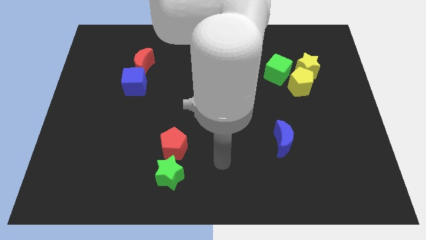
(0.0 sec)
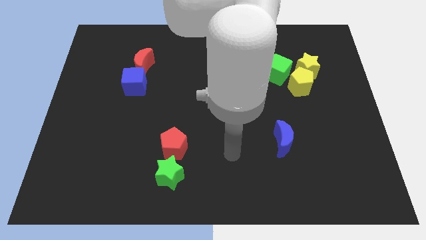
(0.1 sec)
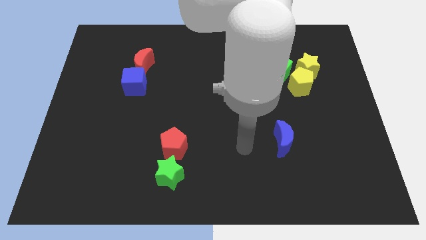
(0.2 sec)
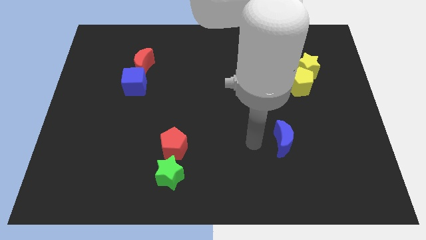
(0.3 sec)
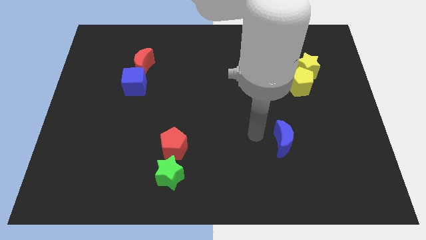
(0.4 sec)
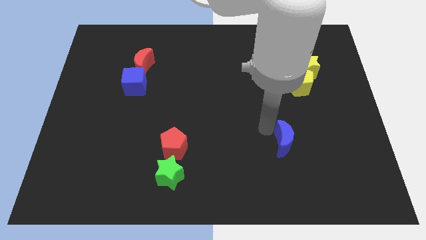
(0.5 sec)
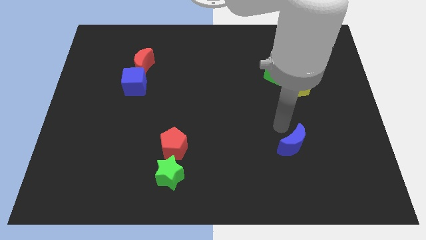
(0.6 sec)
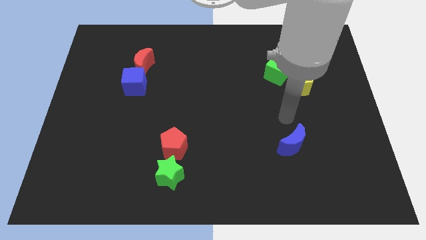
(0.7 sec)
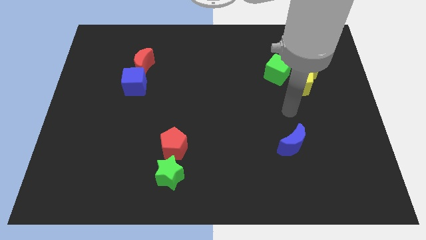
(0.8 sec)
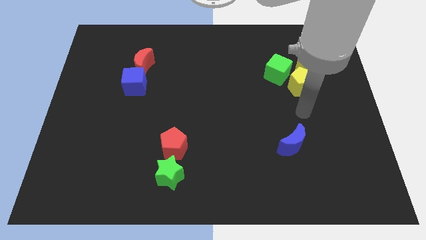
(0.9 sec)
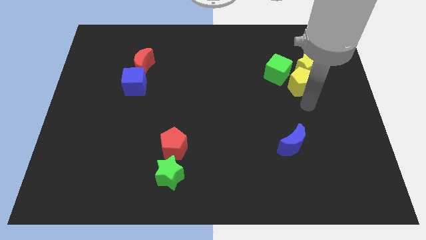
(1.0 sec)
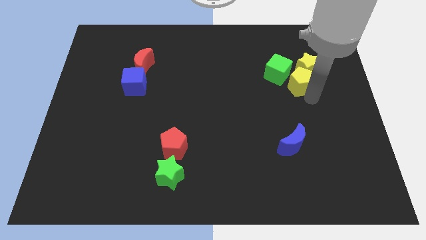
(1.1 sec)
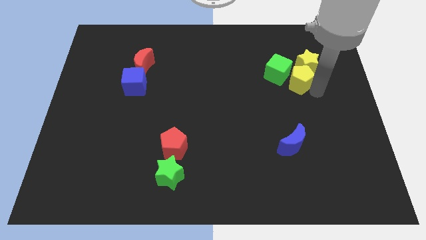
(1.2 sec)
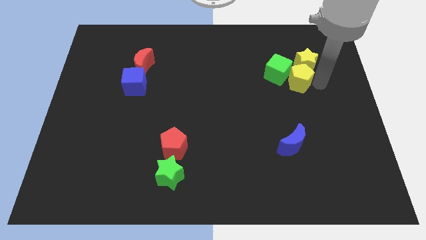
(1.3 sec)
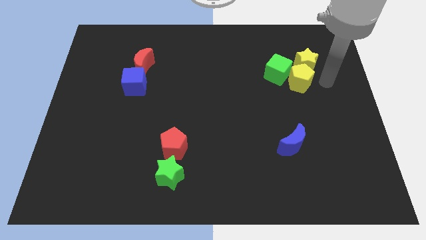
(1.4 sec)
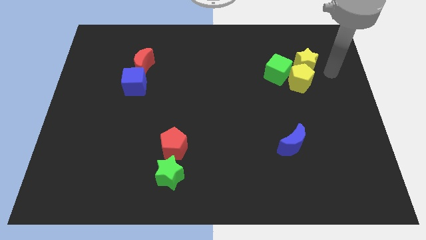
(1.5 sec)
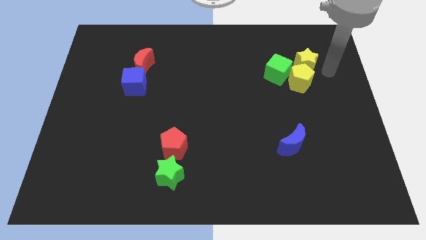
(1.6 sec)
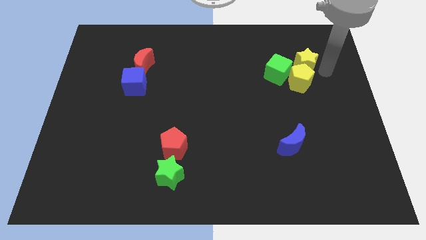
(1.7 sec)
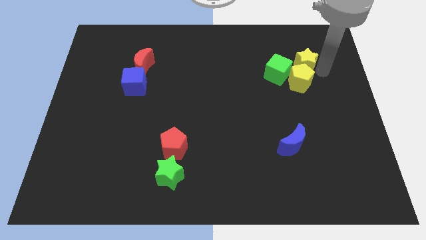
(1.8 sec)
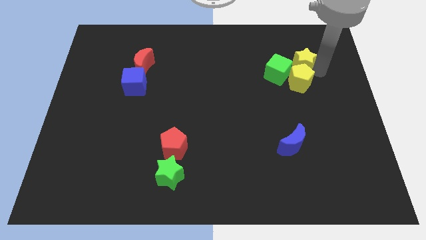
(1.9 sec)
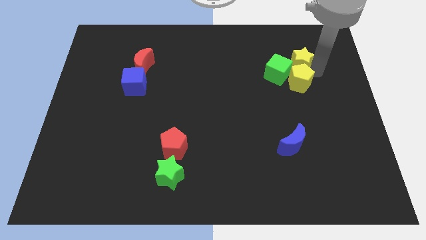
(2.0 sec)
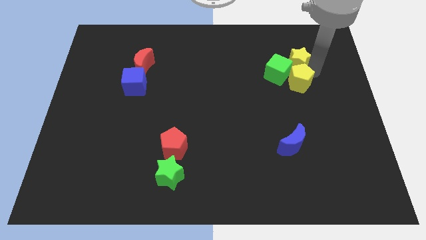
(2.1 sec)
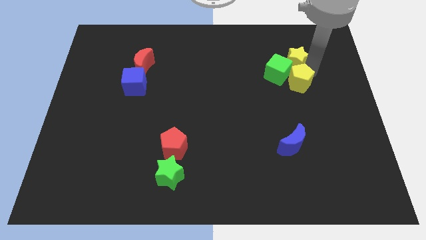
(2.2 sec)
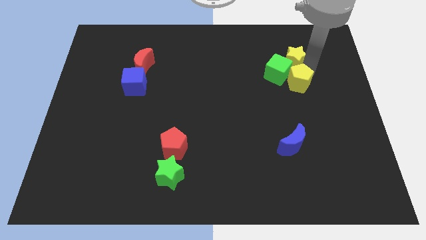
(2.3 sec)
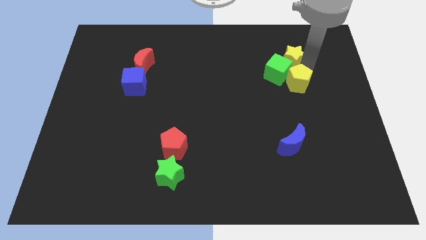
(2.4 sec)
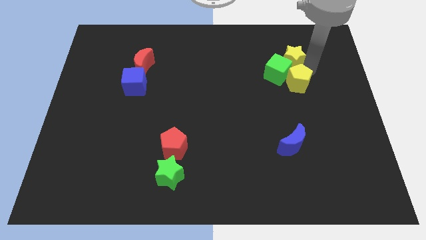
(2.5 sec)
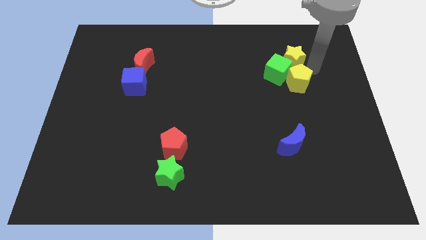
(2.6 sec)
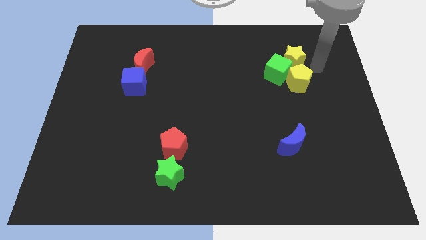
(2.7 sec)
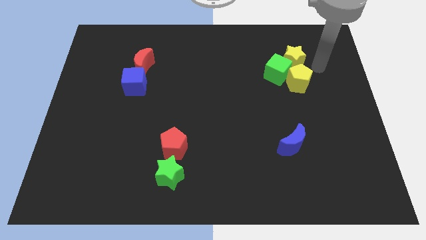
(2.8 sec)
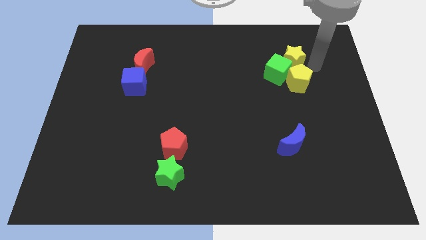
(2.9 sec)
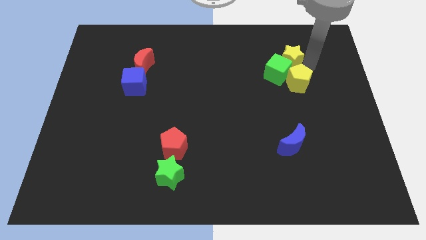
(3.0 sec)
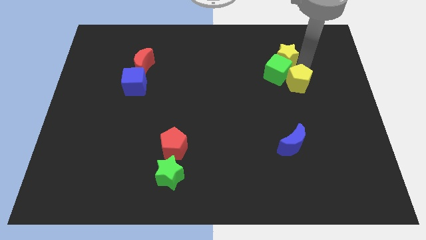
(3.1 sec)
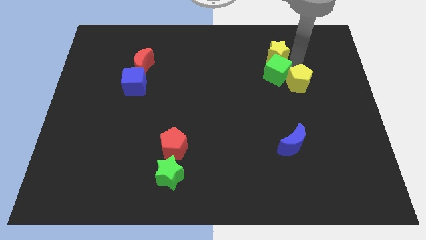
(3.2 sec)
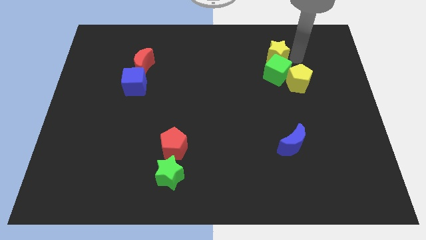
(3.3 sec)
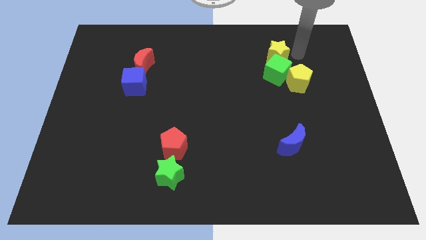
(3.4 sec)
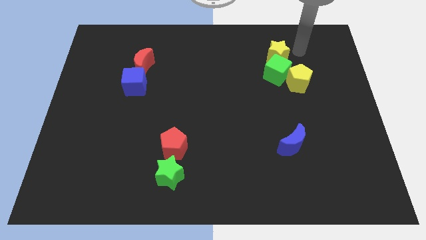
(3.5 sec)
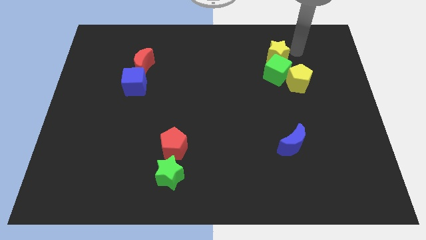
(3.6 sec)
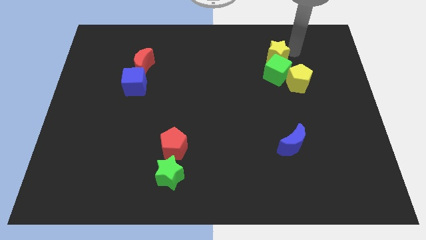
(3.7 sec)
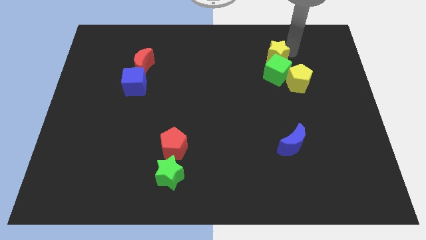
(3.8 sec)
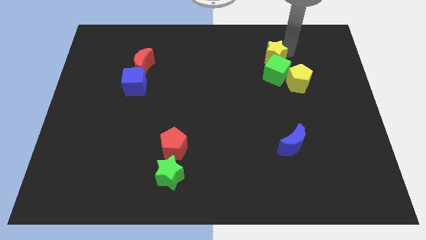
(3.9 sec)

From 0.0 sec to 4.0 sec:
slightly slide the yellow star to the left

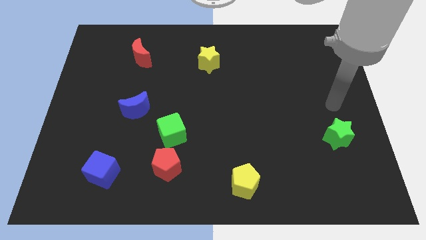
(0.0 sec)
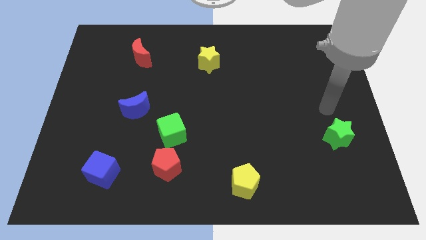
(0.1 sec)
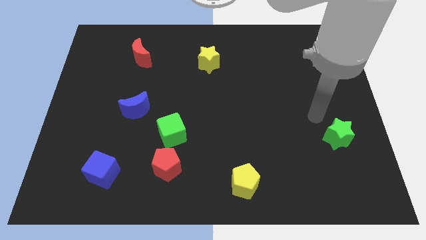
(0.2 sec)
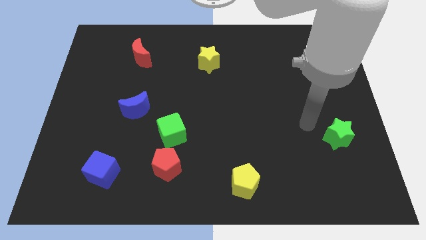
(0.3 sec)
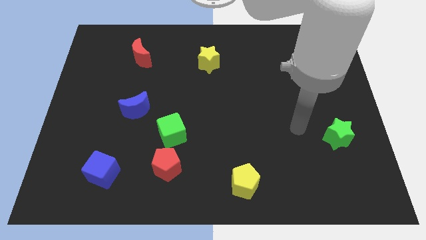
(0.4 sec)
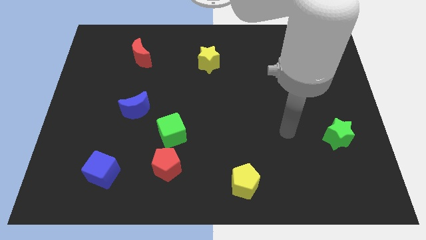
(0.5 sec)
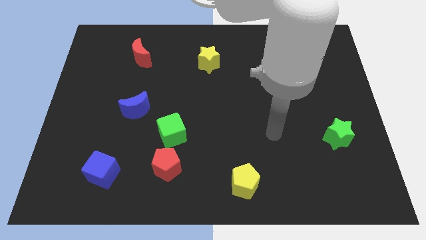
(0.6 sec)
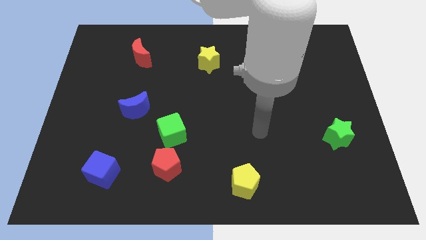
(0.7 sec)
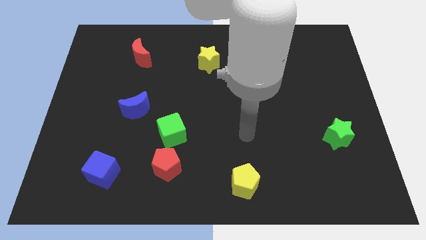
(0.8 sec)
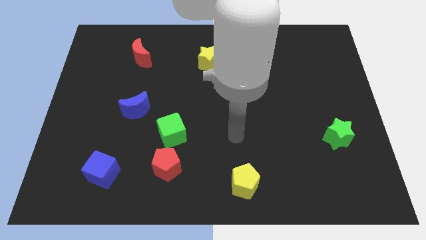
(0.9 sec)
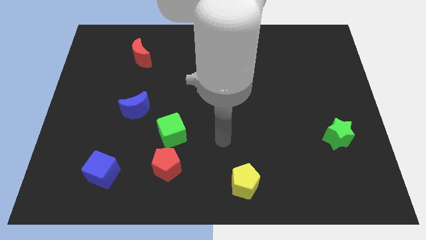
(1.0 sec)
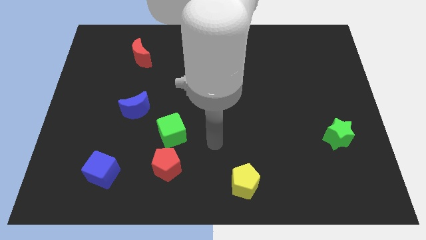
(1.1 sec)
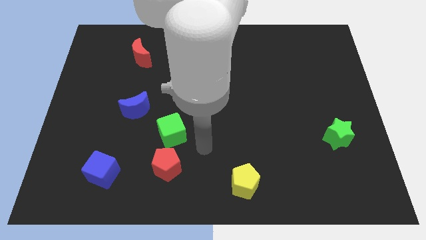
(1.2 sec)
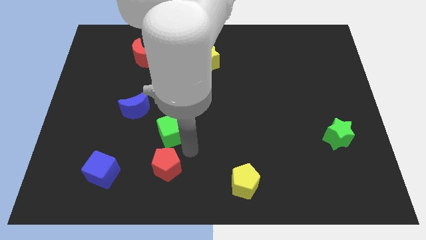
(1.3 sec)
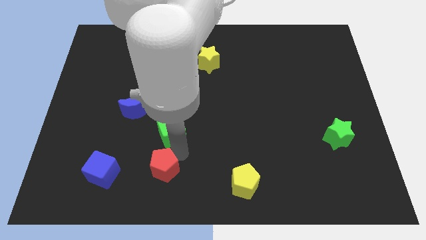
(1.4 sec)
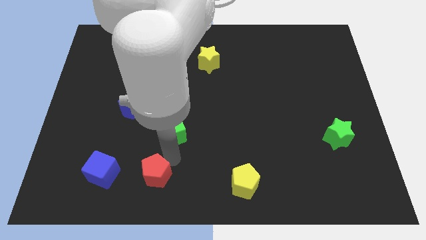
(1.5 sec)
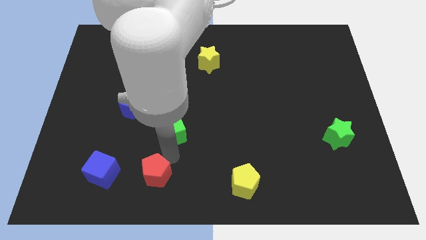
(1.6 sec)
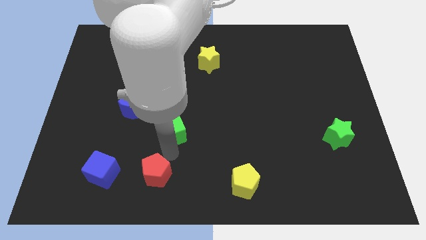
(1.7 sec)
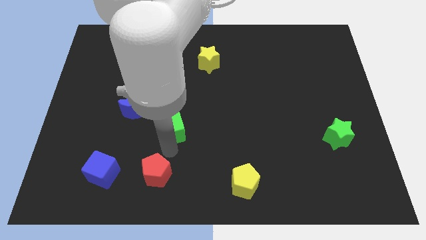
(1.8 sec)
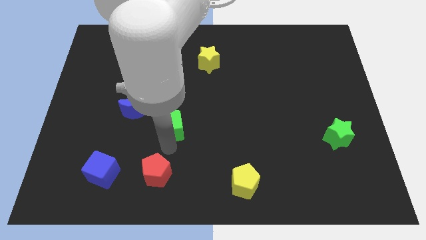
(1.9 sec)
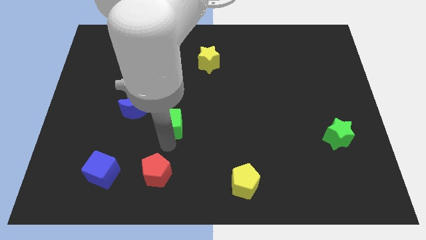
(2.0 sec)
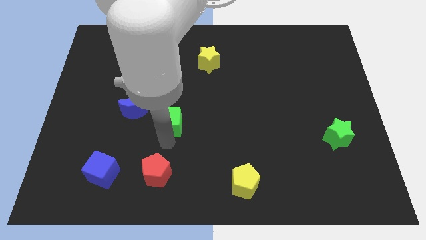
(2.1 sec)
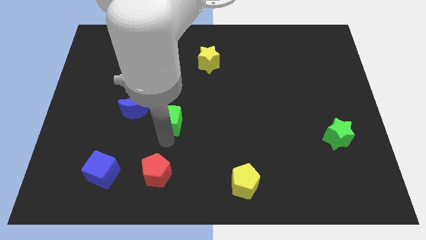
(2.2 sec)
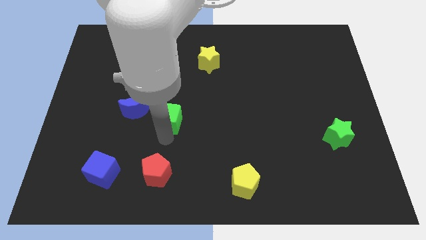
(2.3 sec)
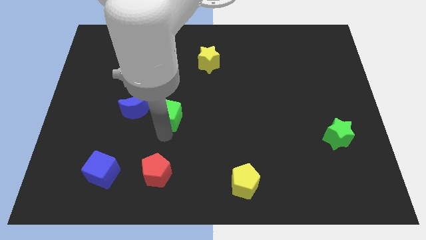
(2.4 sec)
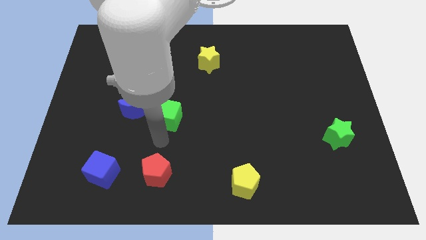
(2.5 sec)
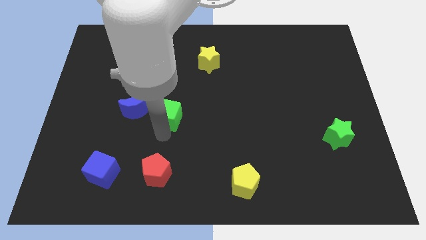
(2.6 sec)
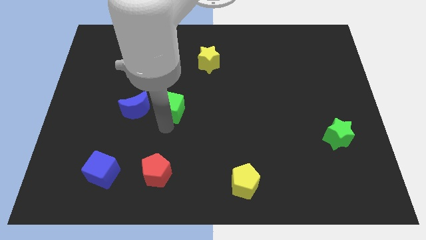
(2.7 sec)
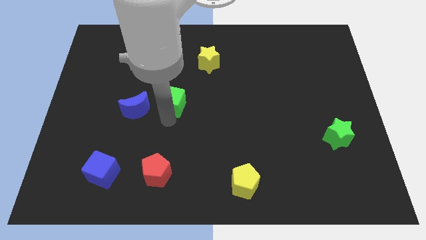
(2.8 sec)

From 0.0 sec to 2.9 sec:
push the green cube up a bit

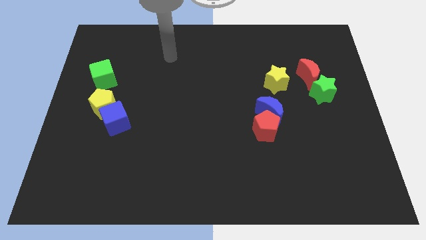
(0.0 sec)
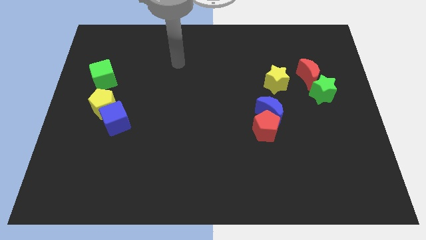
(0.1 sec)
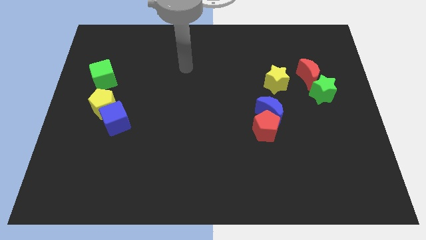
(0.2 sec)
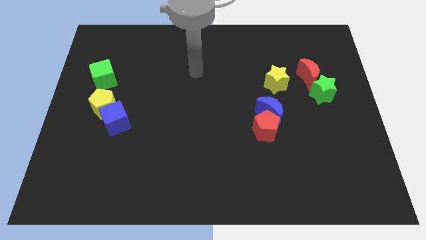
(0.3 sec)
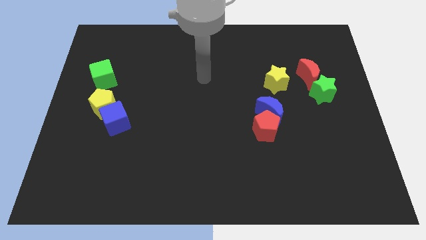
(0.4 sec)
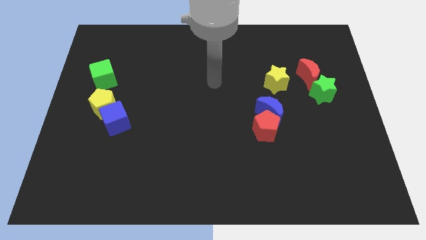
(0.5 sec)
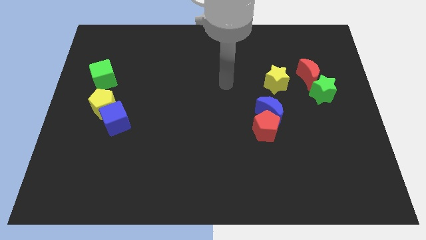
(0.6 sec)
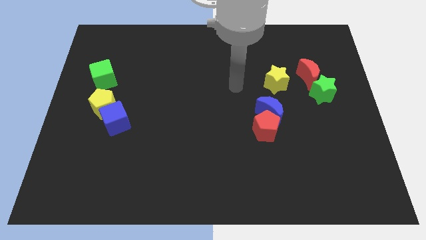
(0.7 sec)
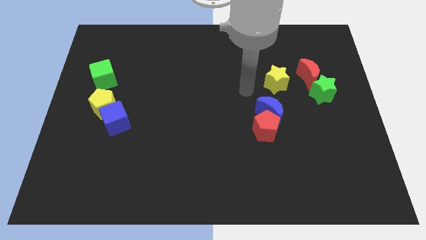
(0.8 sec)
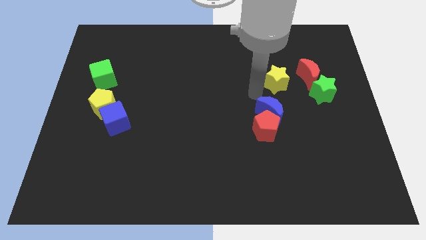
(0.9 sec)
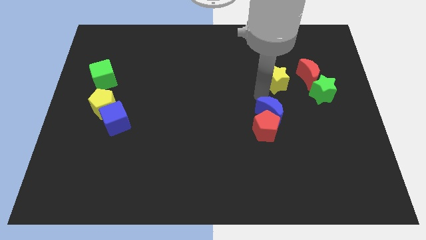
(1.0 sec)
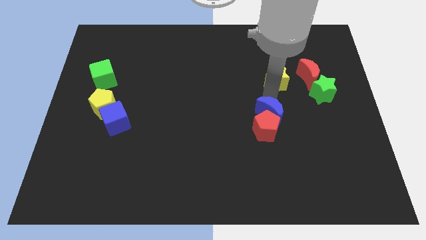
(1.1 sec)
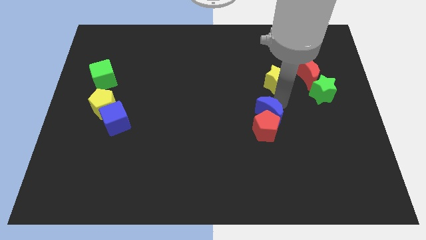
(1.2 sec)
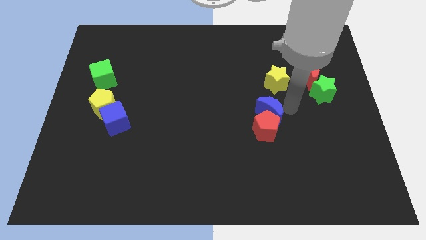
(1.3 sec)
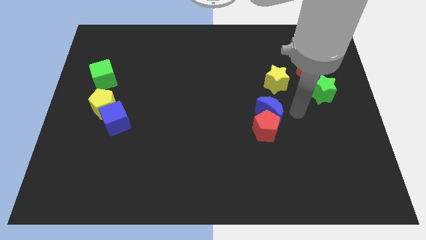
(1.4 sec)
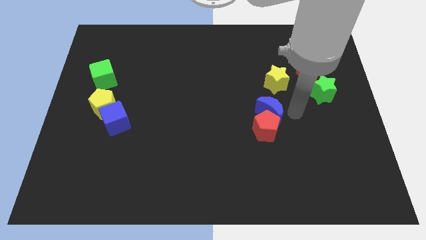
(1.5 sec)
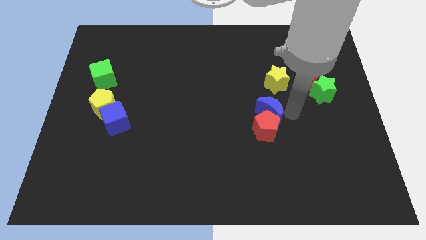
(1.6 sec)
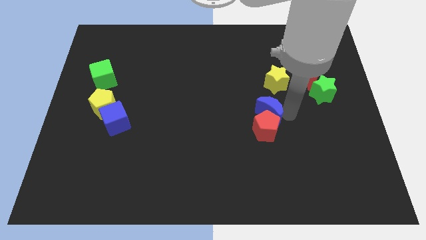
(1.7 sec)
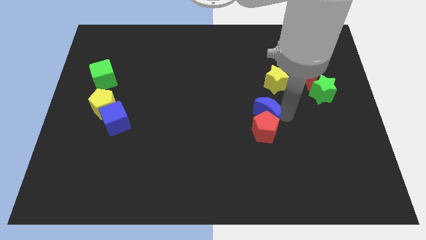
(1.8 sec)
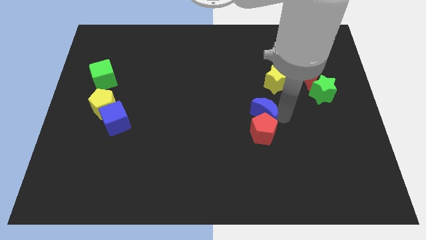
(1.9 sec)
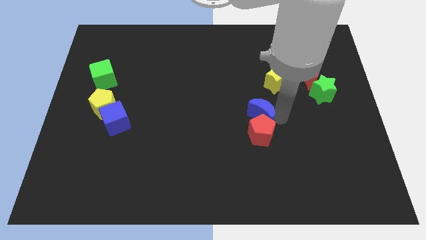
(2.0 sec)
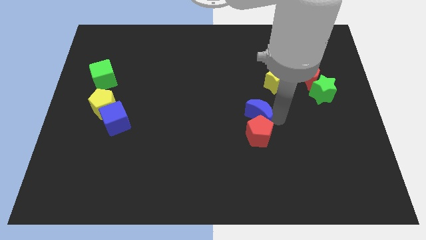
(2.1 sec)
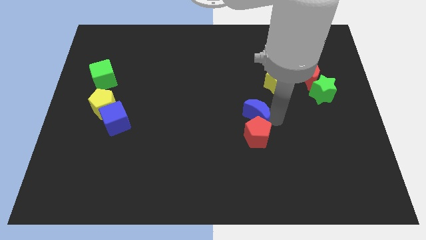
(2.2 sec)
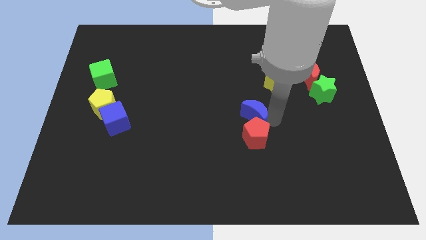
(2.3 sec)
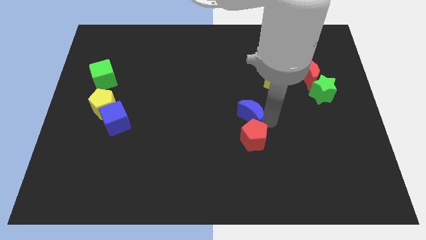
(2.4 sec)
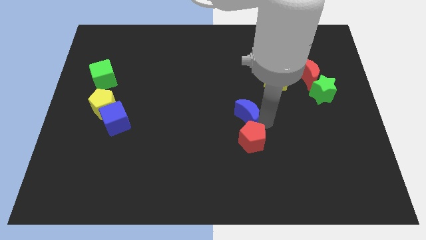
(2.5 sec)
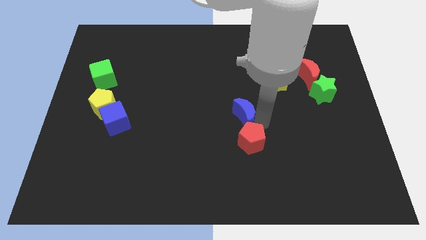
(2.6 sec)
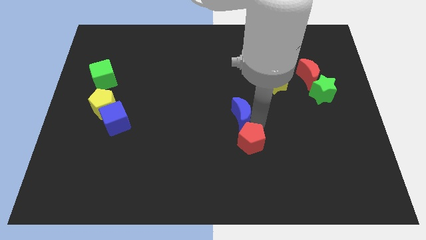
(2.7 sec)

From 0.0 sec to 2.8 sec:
slide the blue moon somewhat to the left
